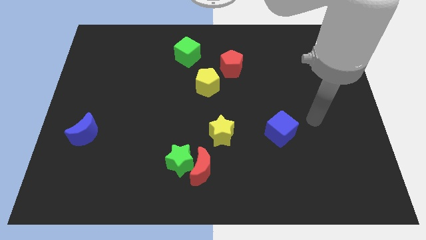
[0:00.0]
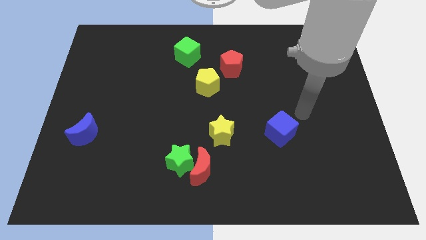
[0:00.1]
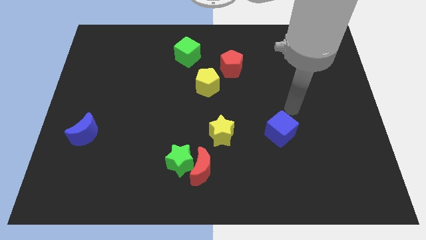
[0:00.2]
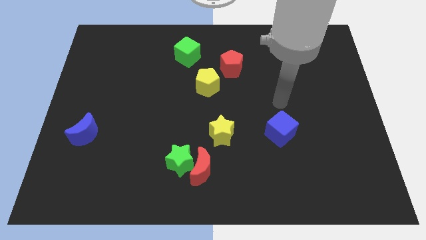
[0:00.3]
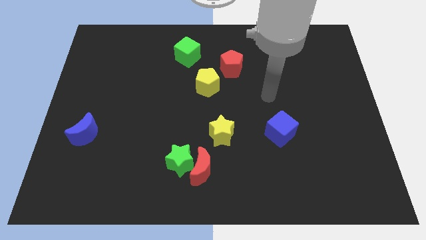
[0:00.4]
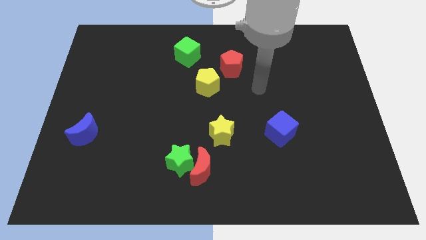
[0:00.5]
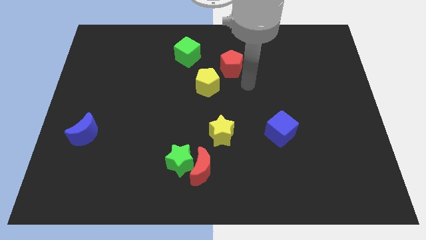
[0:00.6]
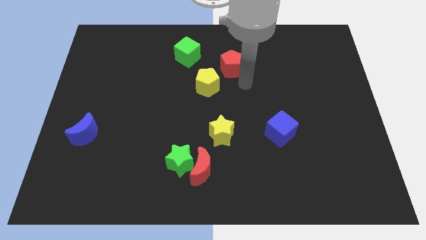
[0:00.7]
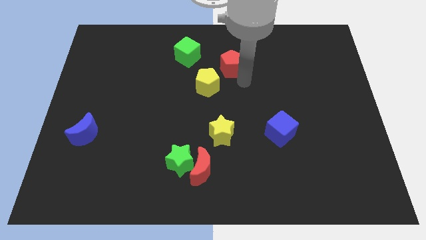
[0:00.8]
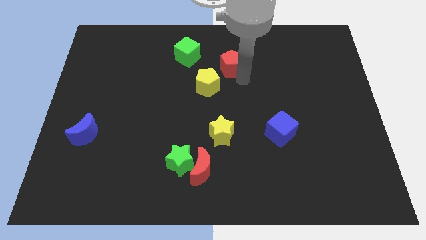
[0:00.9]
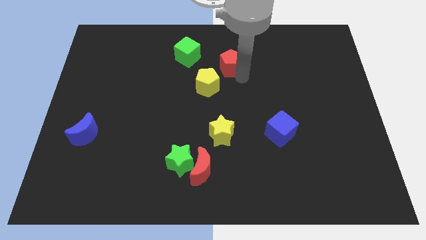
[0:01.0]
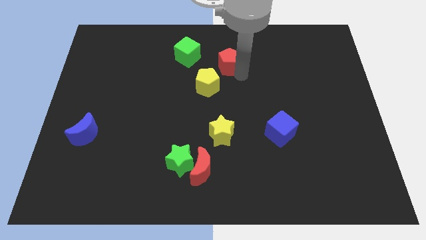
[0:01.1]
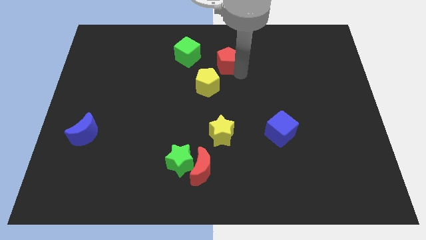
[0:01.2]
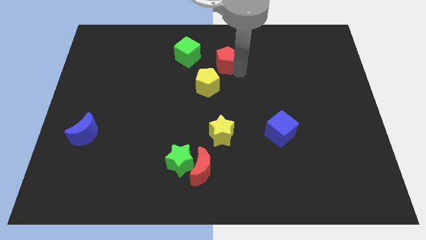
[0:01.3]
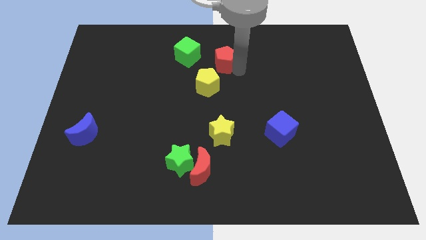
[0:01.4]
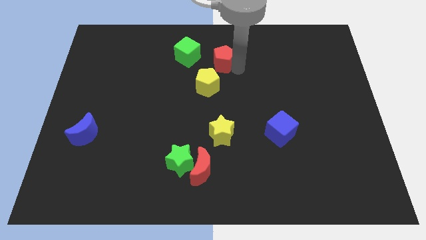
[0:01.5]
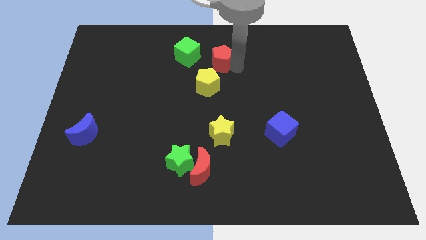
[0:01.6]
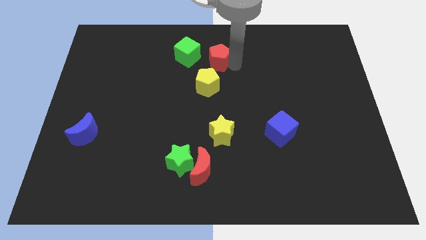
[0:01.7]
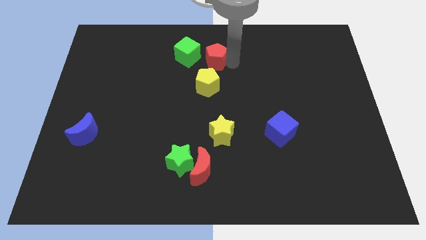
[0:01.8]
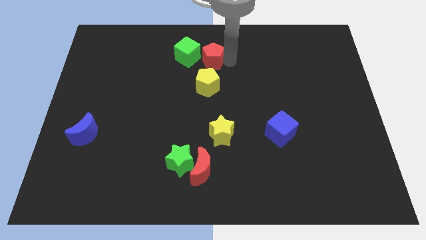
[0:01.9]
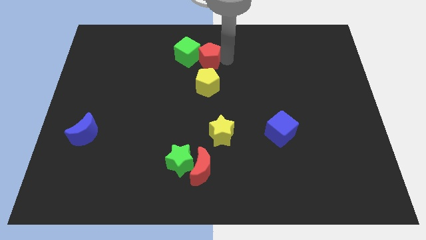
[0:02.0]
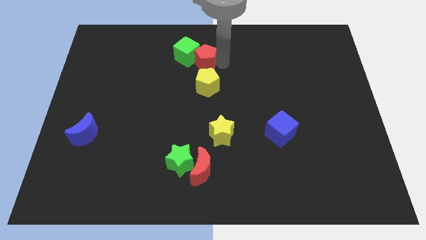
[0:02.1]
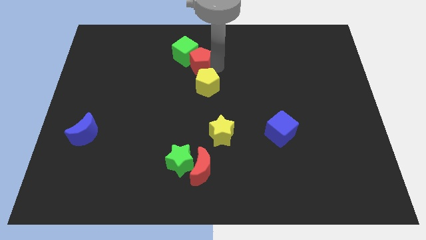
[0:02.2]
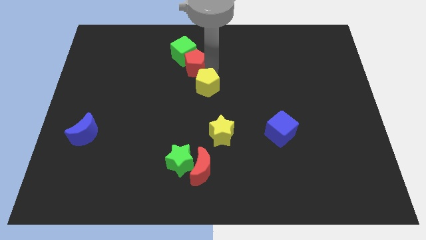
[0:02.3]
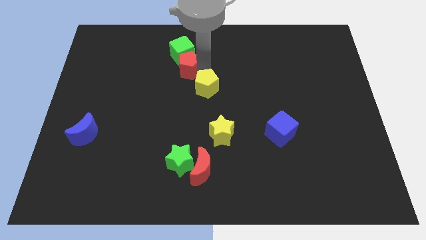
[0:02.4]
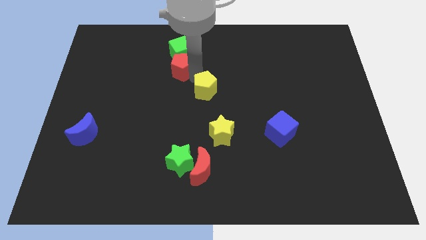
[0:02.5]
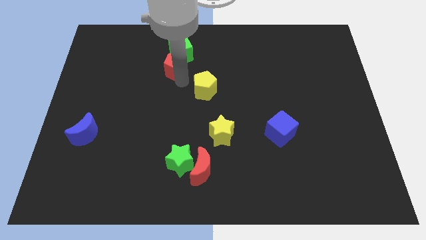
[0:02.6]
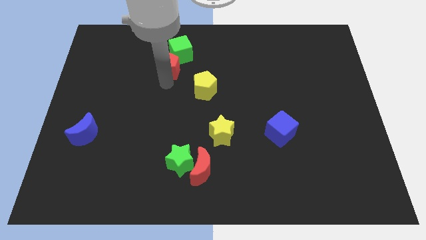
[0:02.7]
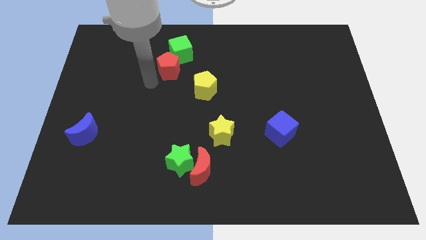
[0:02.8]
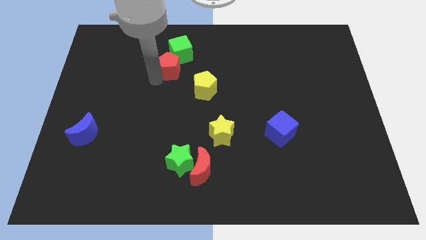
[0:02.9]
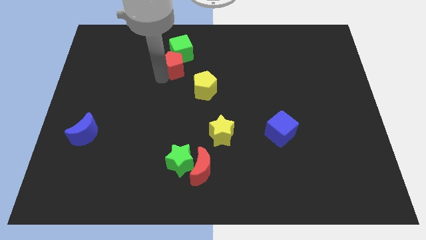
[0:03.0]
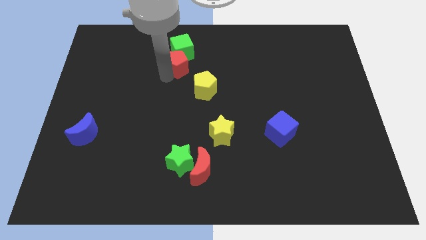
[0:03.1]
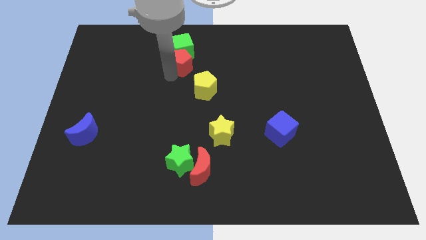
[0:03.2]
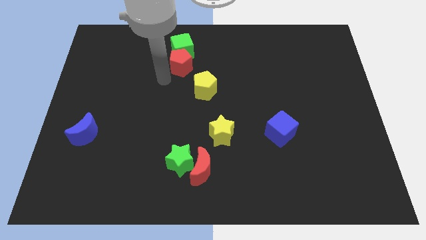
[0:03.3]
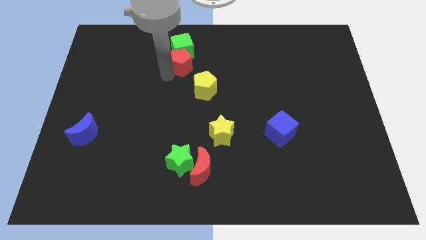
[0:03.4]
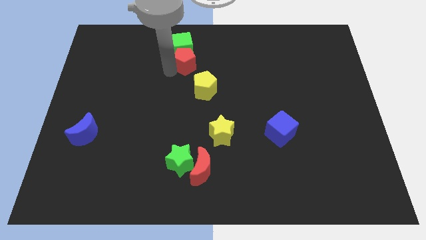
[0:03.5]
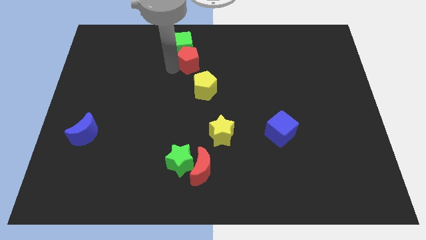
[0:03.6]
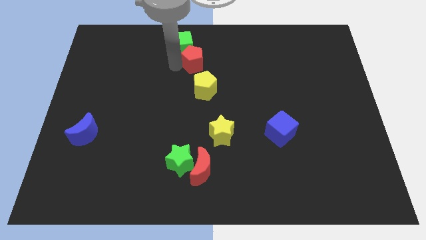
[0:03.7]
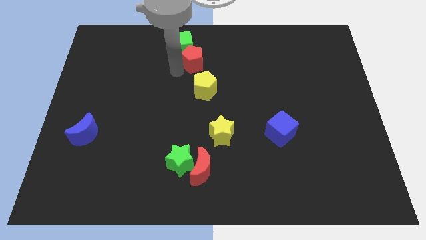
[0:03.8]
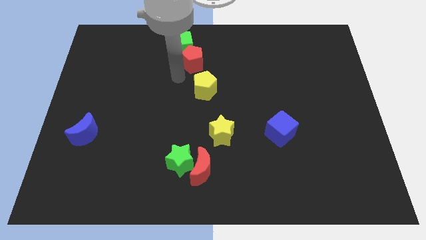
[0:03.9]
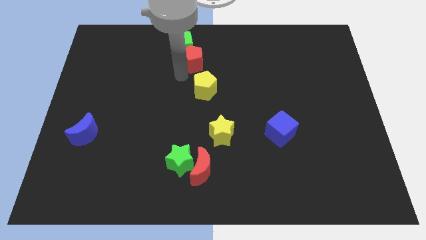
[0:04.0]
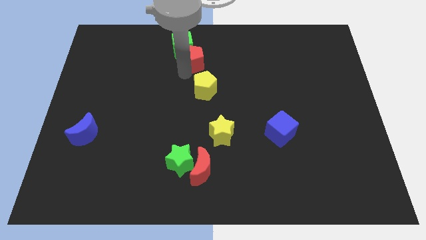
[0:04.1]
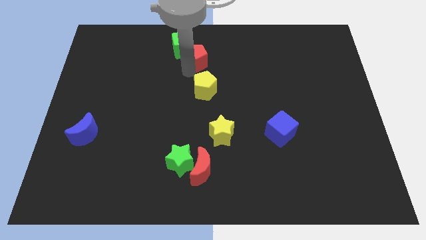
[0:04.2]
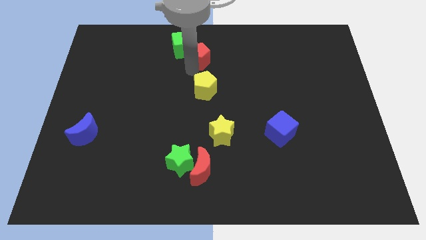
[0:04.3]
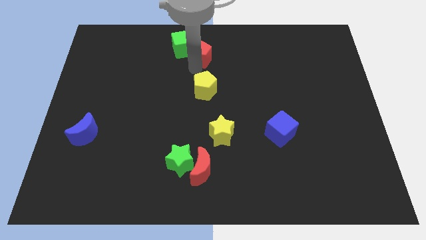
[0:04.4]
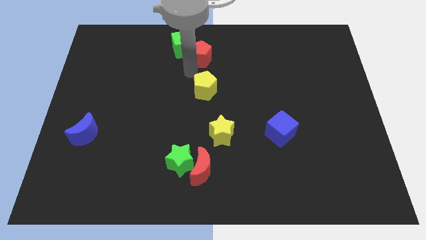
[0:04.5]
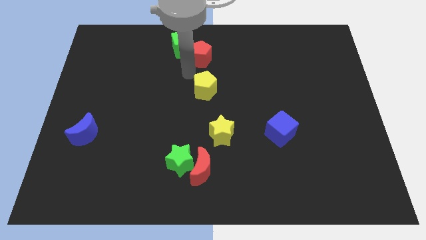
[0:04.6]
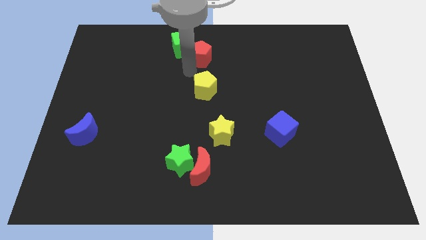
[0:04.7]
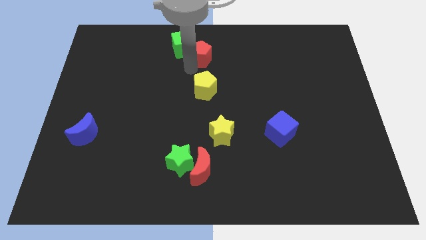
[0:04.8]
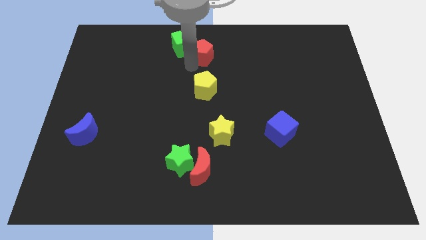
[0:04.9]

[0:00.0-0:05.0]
put the red pentagon to the top side

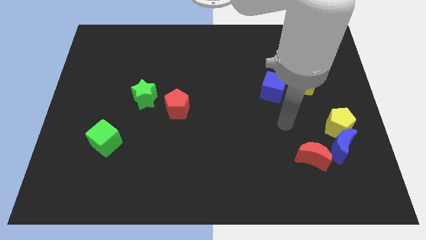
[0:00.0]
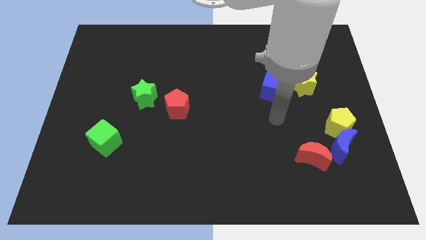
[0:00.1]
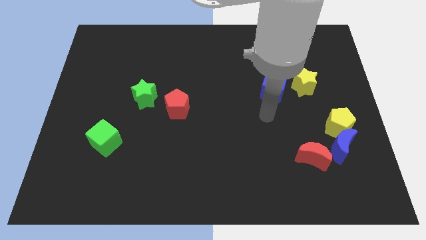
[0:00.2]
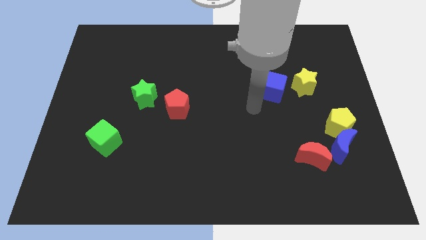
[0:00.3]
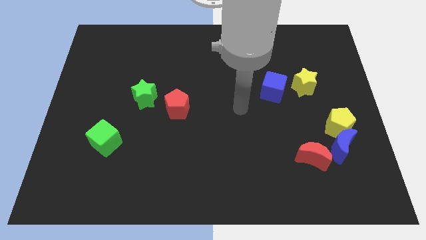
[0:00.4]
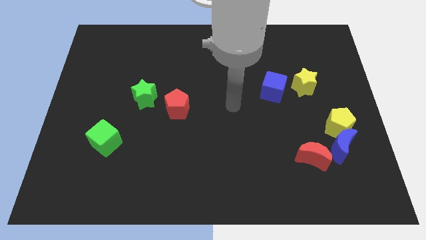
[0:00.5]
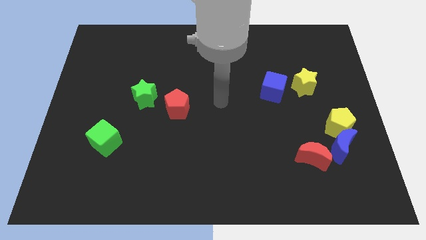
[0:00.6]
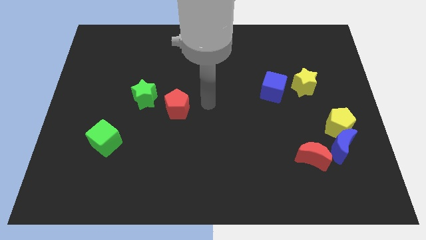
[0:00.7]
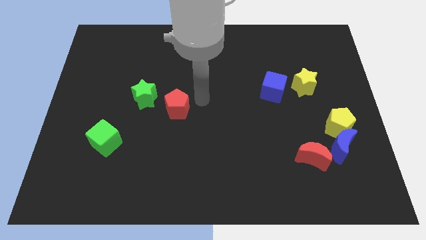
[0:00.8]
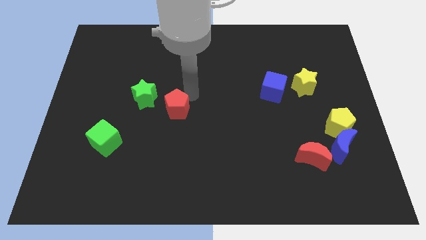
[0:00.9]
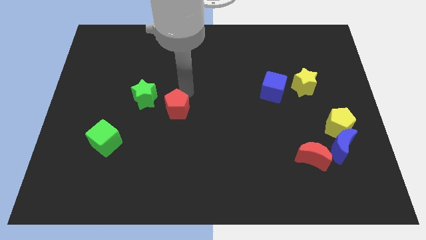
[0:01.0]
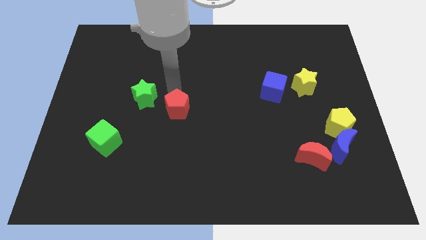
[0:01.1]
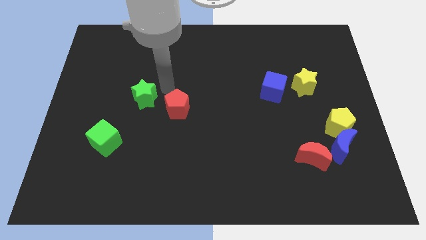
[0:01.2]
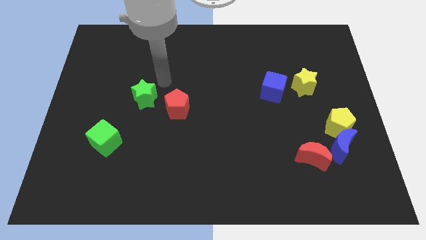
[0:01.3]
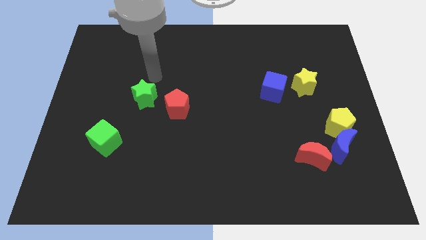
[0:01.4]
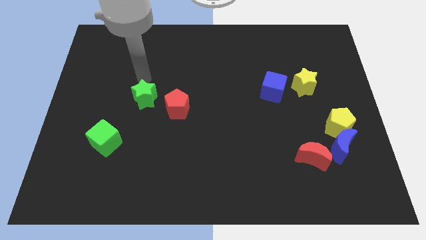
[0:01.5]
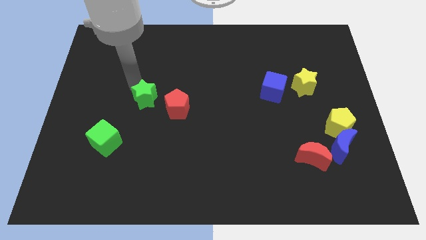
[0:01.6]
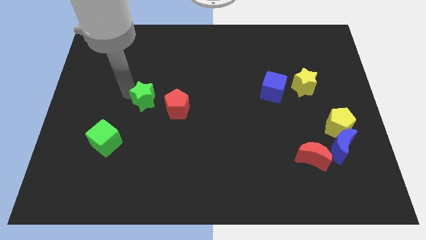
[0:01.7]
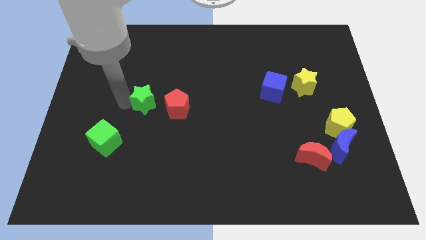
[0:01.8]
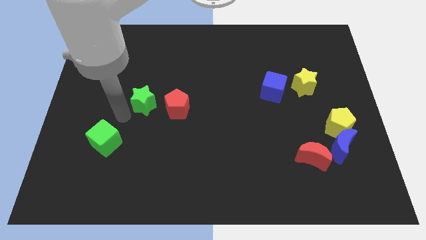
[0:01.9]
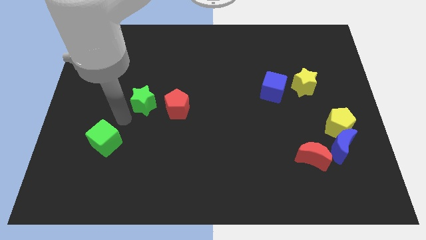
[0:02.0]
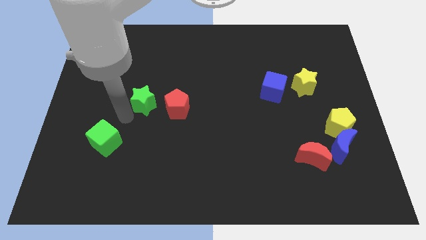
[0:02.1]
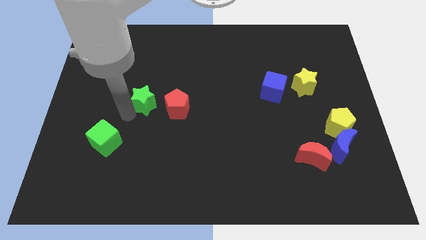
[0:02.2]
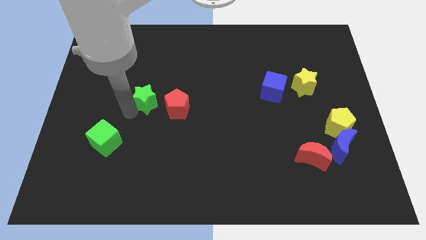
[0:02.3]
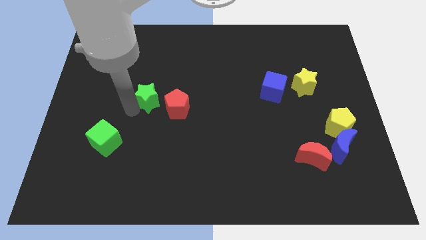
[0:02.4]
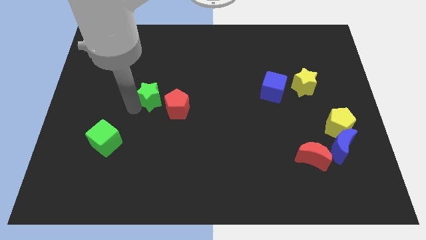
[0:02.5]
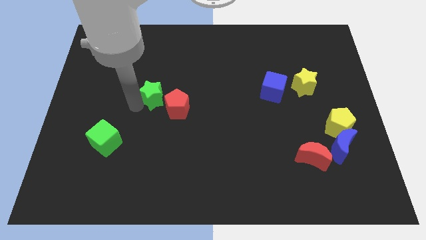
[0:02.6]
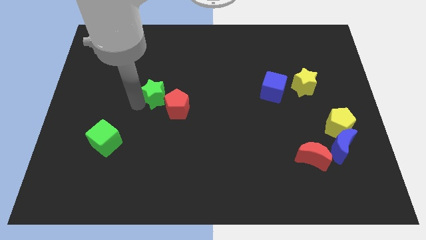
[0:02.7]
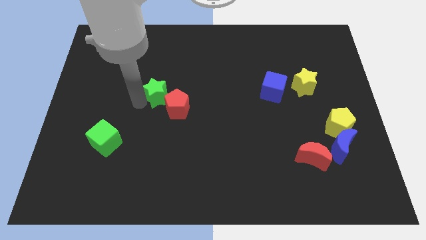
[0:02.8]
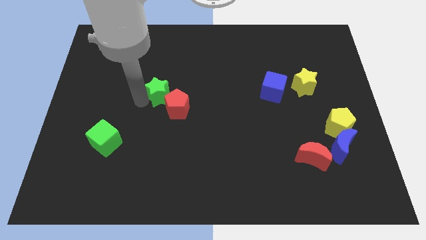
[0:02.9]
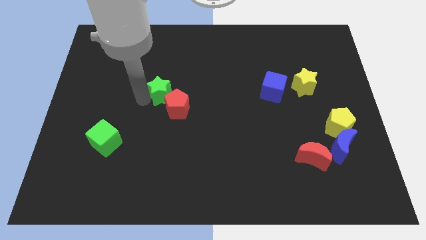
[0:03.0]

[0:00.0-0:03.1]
slide the green star to the middle
